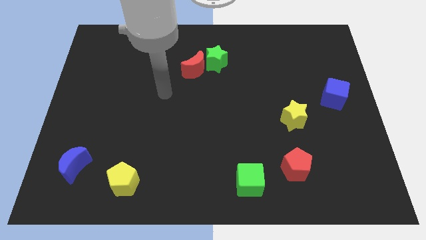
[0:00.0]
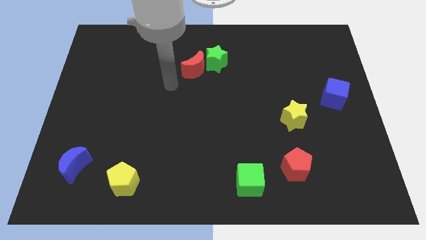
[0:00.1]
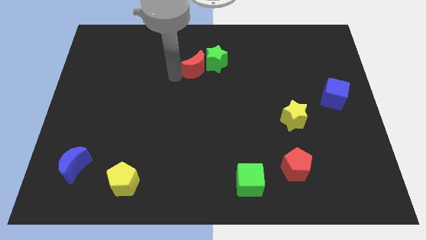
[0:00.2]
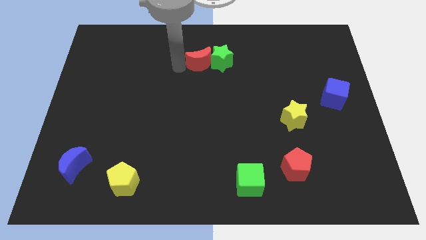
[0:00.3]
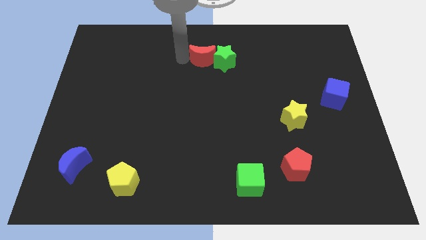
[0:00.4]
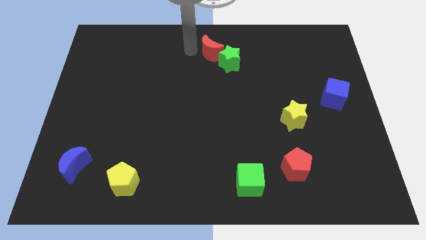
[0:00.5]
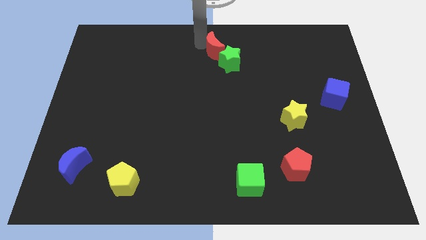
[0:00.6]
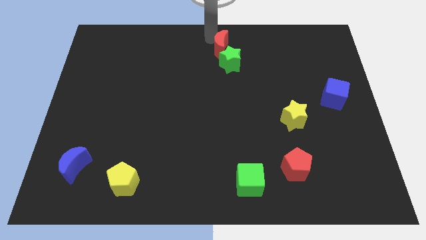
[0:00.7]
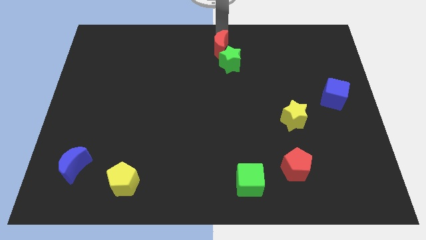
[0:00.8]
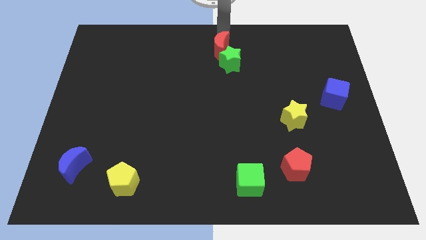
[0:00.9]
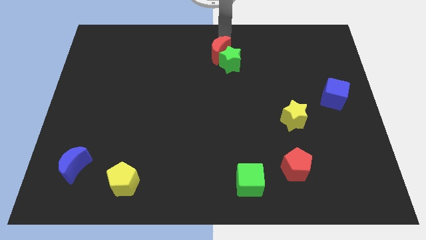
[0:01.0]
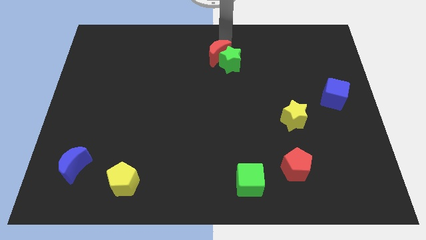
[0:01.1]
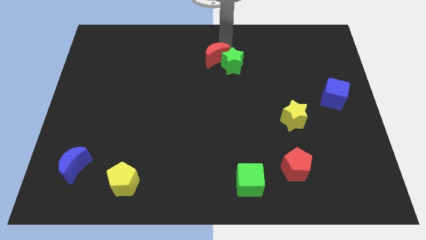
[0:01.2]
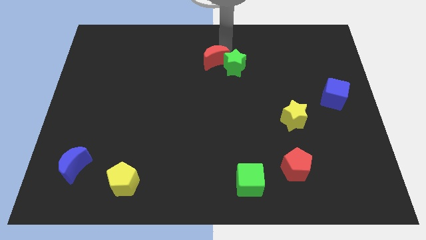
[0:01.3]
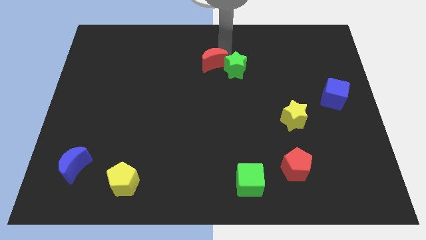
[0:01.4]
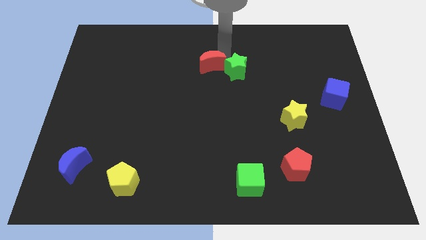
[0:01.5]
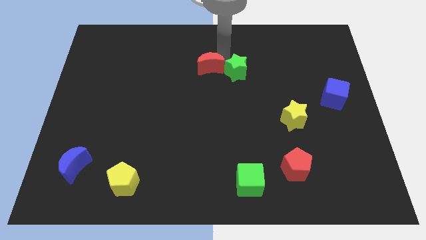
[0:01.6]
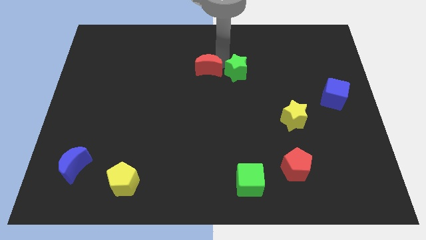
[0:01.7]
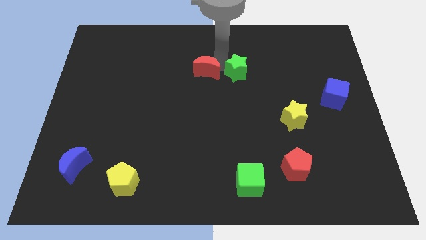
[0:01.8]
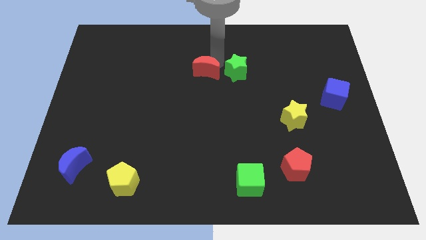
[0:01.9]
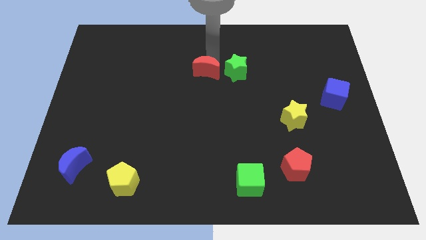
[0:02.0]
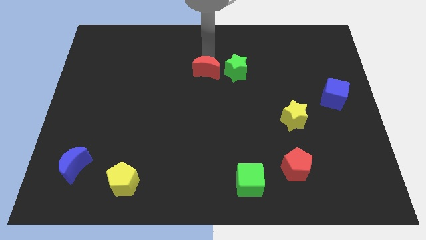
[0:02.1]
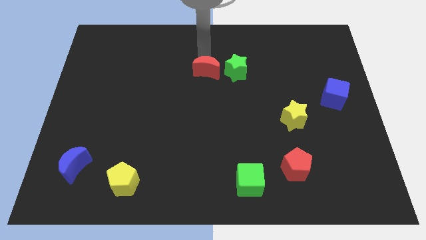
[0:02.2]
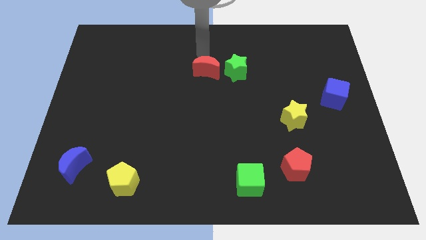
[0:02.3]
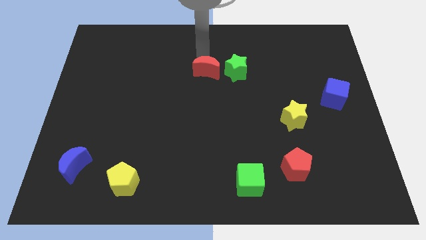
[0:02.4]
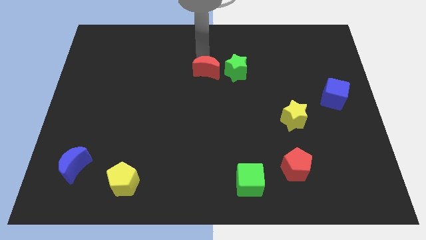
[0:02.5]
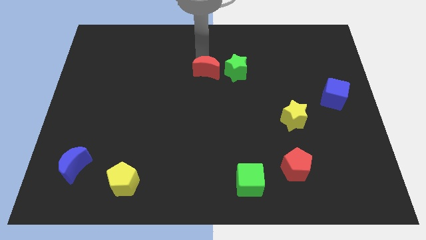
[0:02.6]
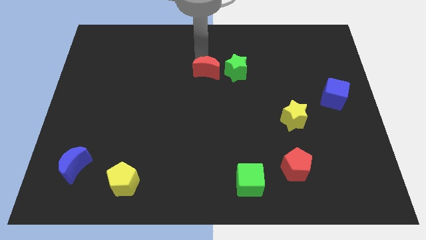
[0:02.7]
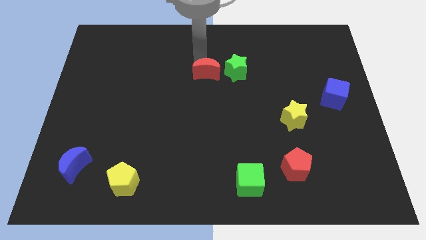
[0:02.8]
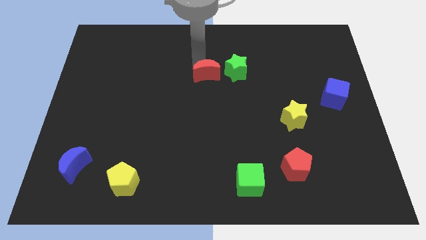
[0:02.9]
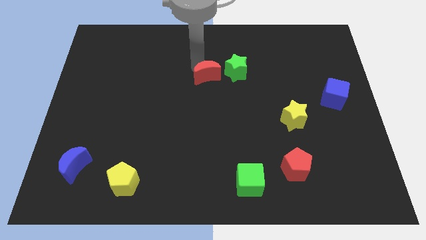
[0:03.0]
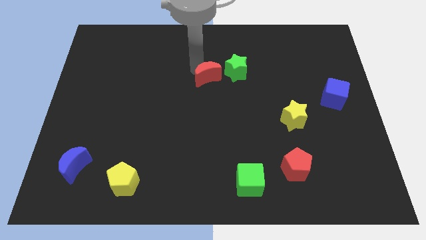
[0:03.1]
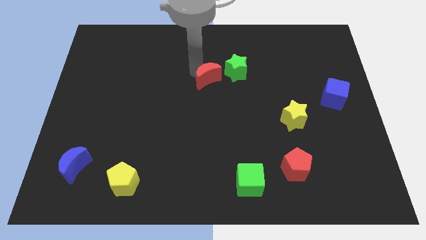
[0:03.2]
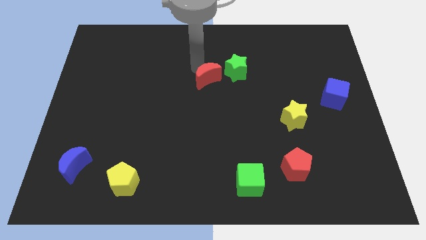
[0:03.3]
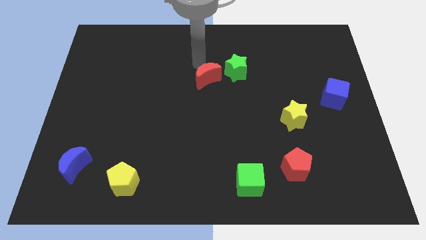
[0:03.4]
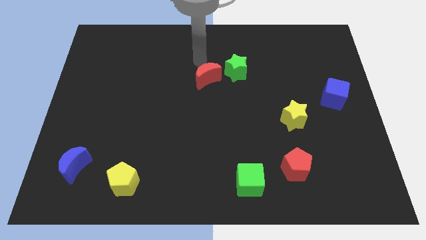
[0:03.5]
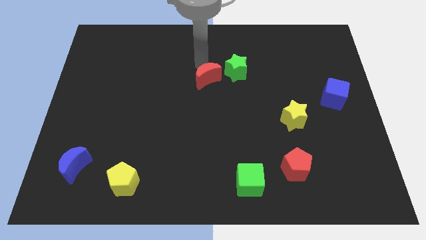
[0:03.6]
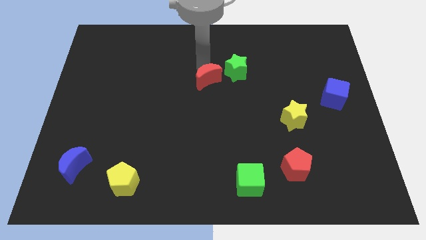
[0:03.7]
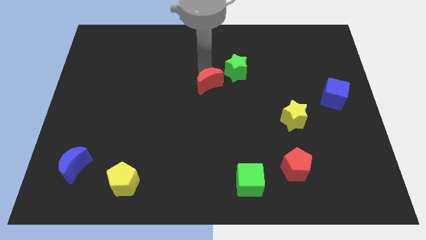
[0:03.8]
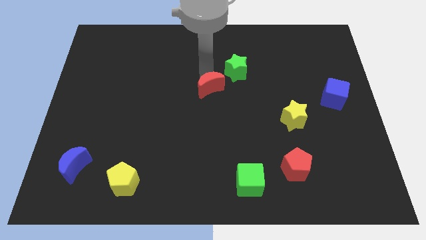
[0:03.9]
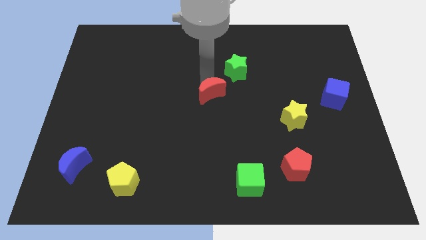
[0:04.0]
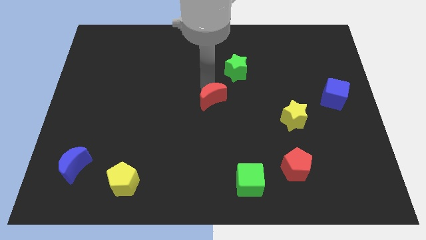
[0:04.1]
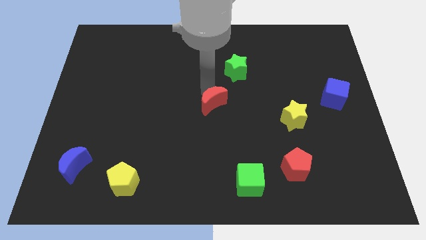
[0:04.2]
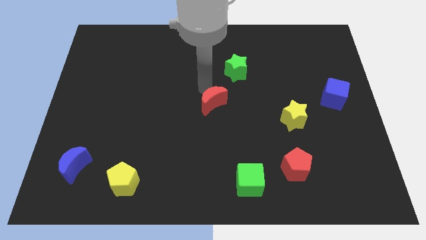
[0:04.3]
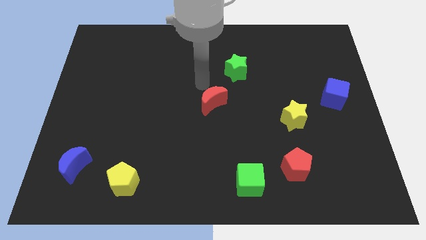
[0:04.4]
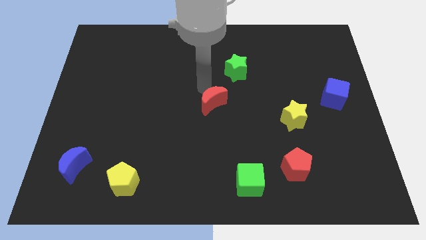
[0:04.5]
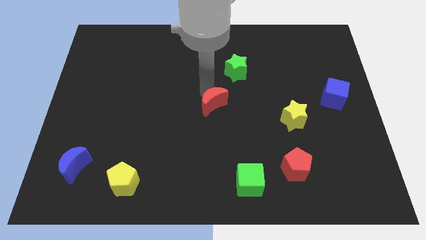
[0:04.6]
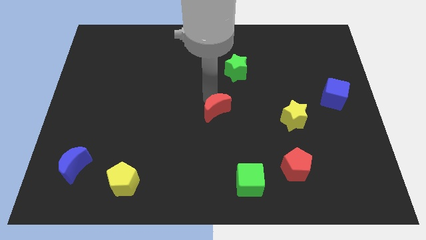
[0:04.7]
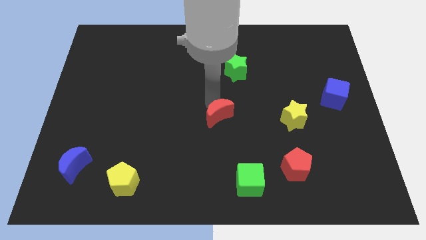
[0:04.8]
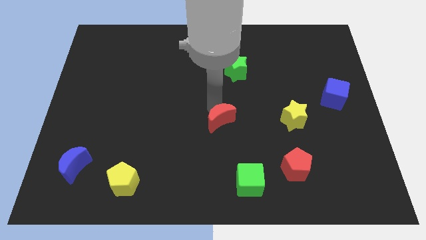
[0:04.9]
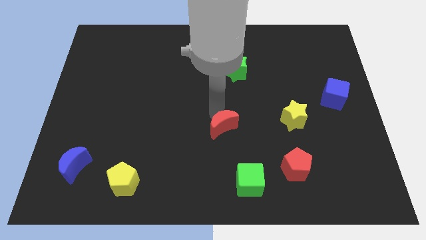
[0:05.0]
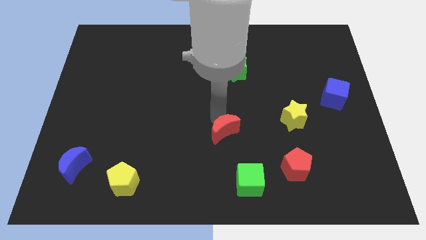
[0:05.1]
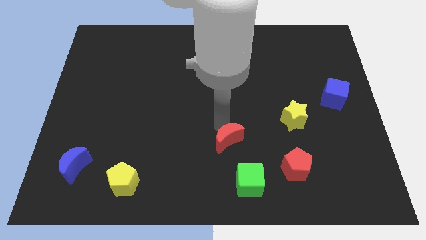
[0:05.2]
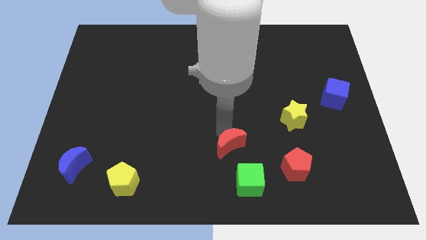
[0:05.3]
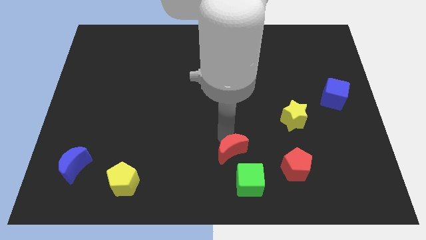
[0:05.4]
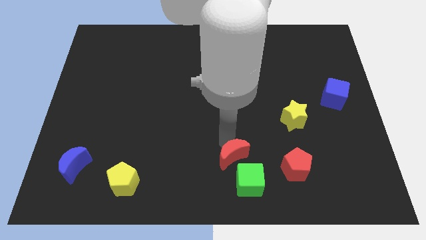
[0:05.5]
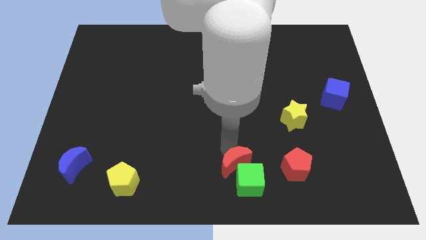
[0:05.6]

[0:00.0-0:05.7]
move the red moon towards the green cube

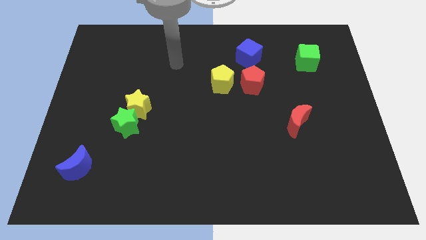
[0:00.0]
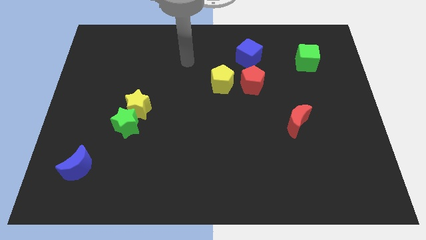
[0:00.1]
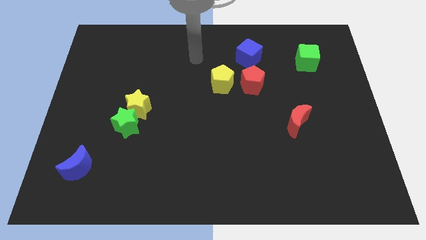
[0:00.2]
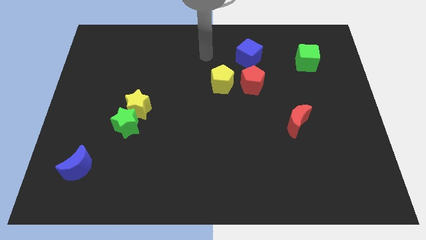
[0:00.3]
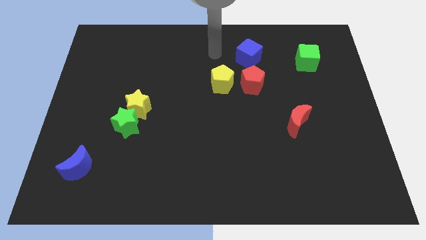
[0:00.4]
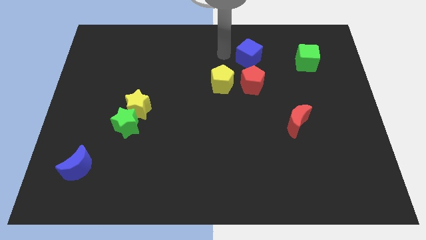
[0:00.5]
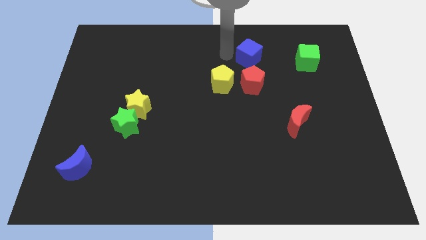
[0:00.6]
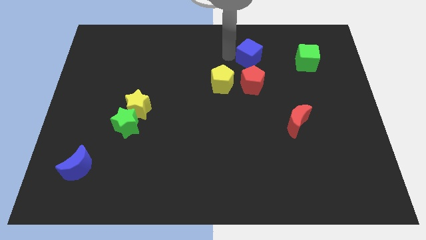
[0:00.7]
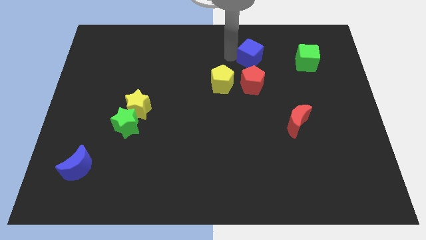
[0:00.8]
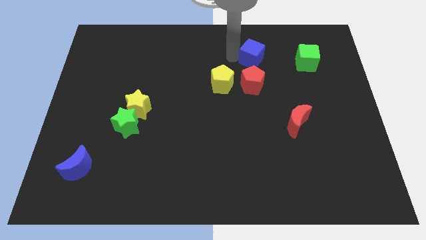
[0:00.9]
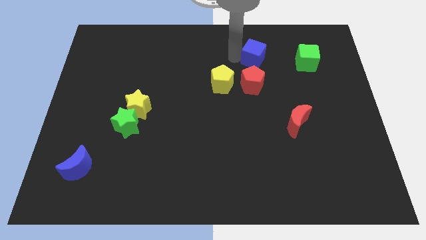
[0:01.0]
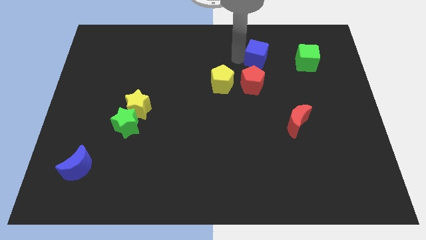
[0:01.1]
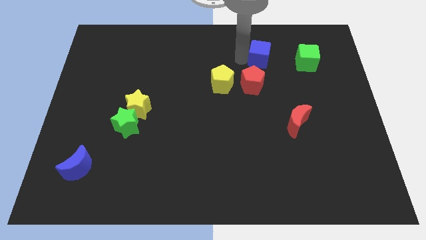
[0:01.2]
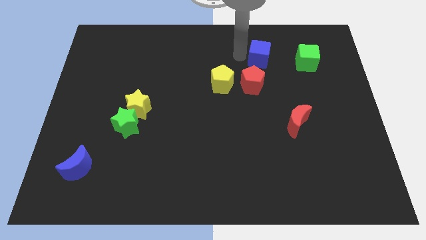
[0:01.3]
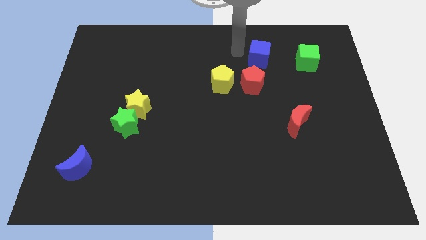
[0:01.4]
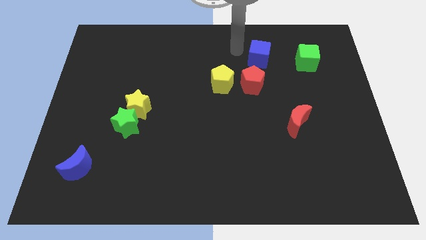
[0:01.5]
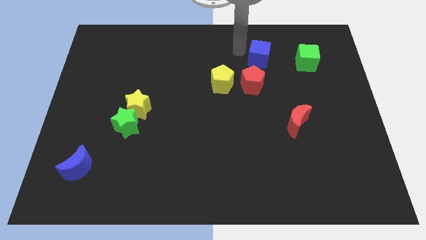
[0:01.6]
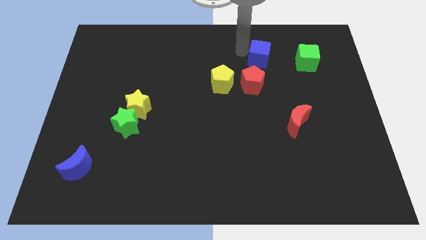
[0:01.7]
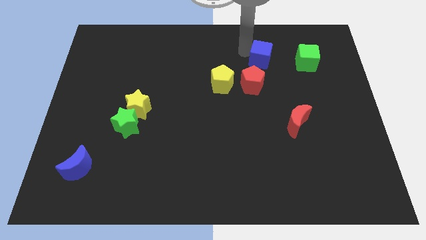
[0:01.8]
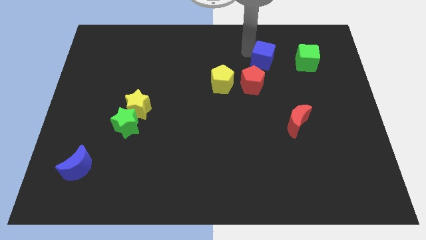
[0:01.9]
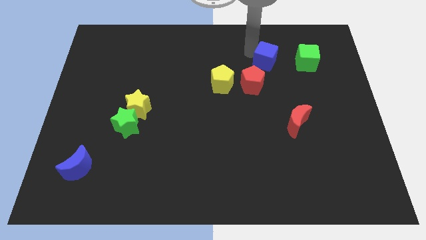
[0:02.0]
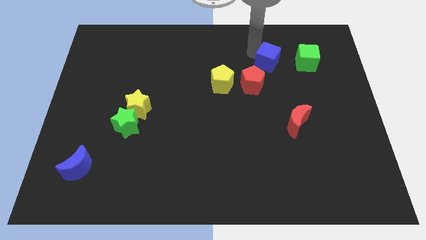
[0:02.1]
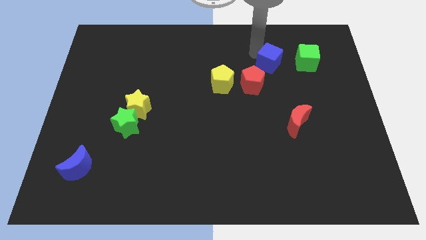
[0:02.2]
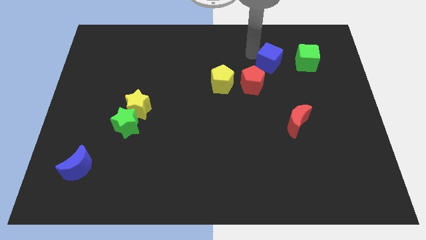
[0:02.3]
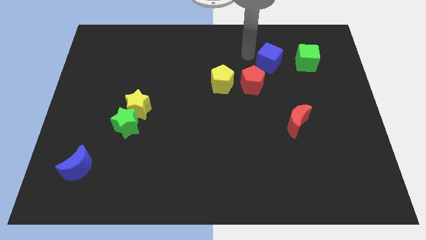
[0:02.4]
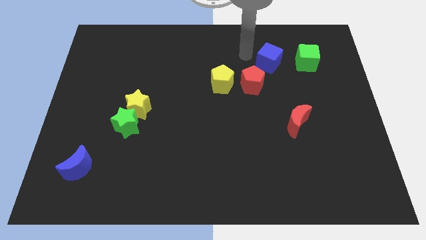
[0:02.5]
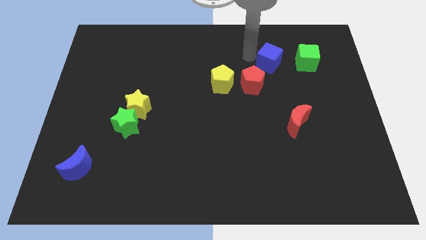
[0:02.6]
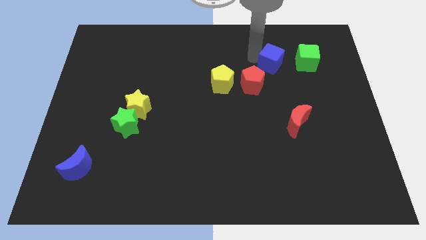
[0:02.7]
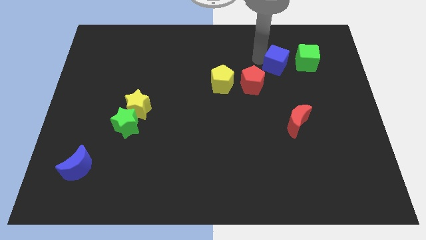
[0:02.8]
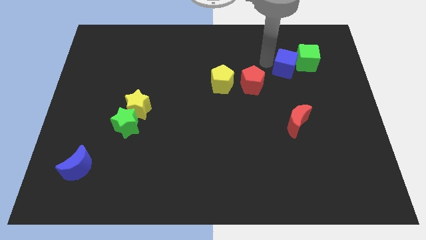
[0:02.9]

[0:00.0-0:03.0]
push the blue cube next to the green cube
